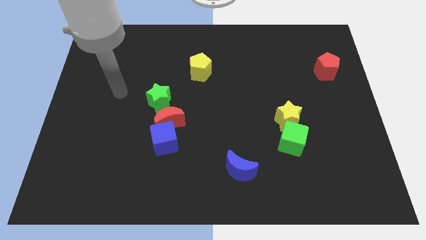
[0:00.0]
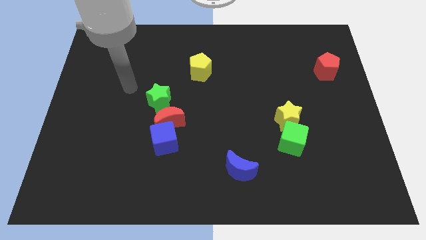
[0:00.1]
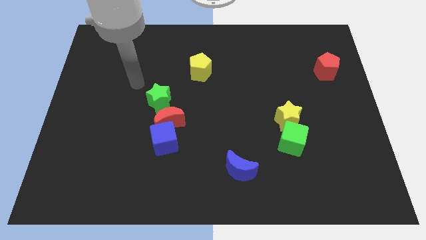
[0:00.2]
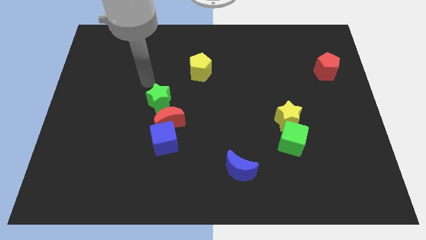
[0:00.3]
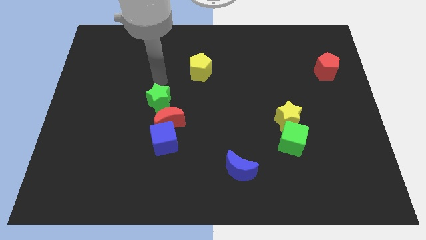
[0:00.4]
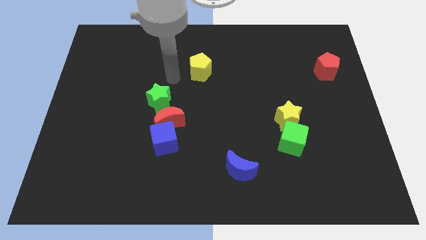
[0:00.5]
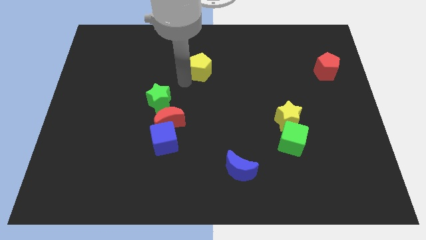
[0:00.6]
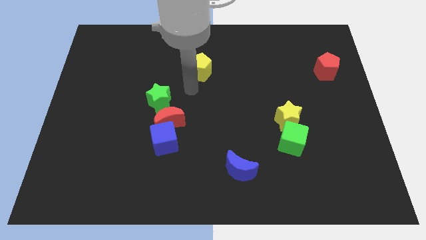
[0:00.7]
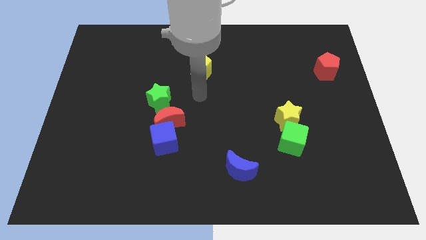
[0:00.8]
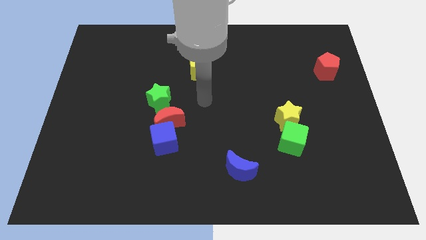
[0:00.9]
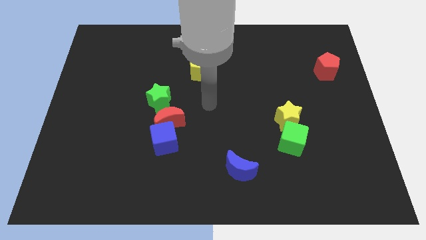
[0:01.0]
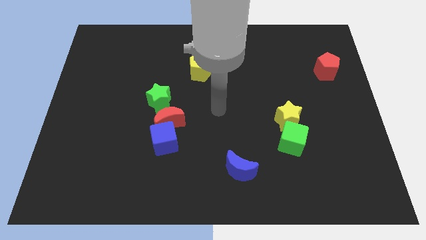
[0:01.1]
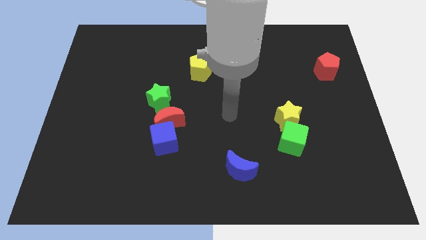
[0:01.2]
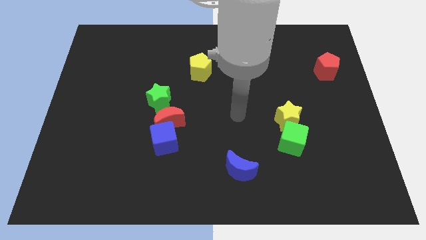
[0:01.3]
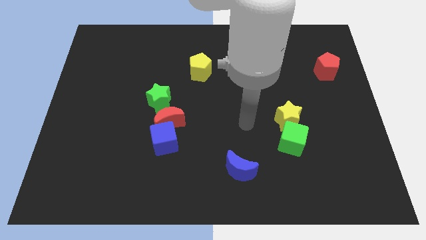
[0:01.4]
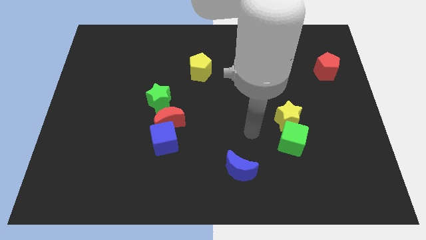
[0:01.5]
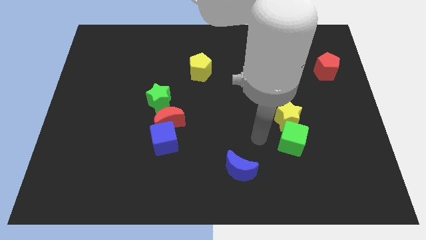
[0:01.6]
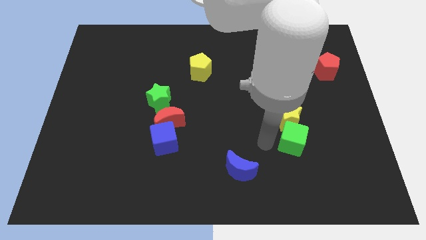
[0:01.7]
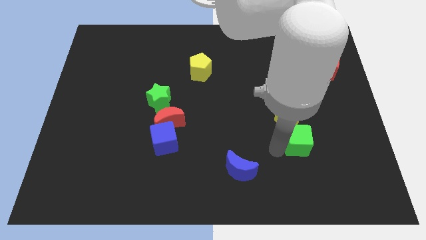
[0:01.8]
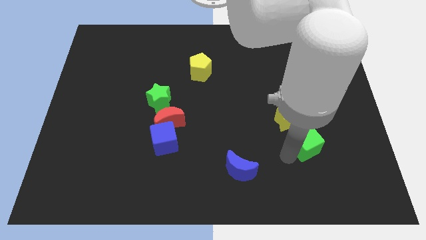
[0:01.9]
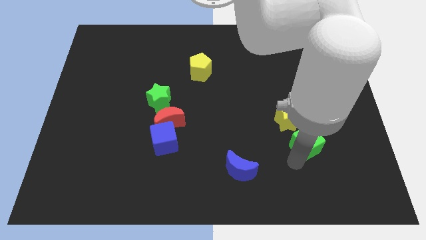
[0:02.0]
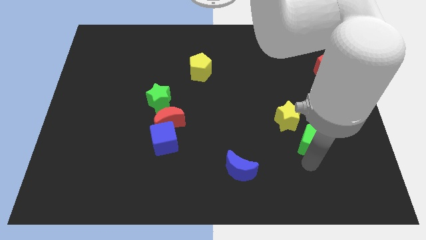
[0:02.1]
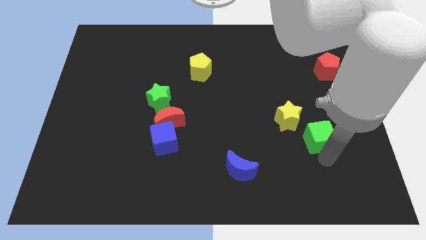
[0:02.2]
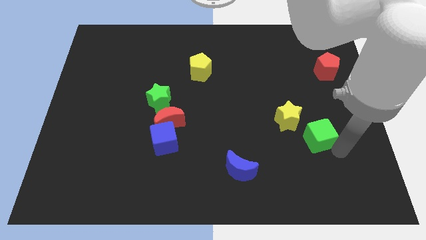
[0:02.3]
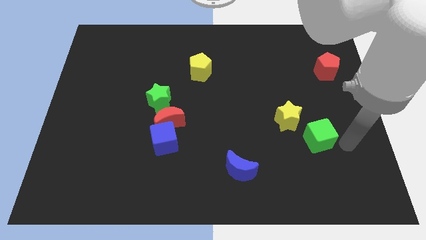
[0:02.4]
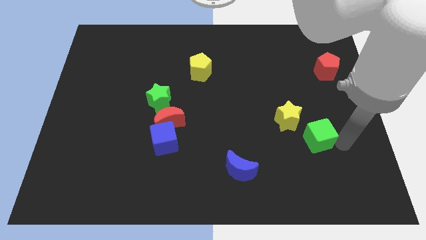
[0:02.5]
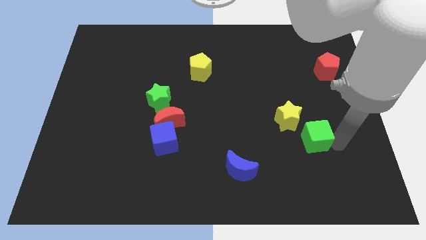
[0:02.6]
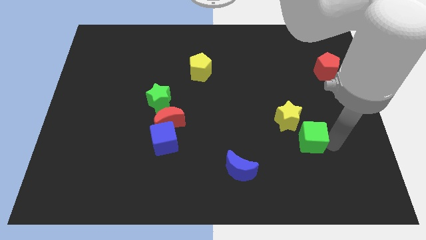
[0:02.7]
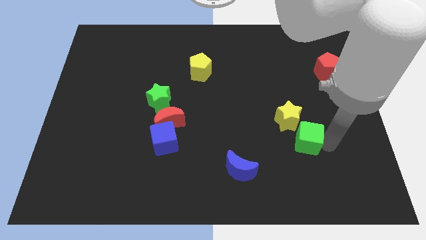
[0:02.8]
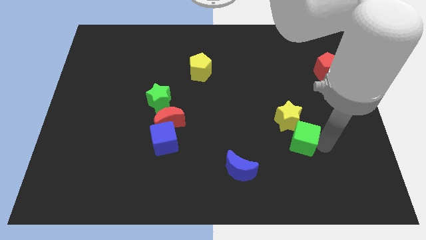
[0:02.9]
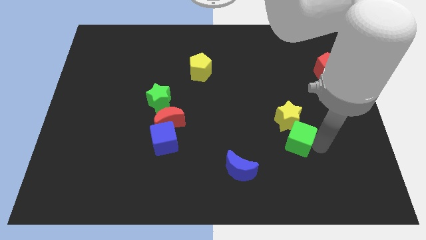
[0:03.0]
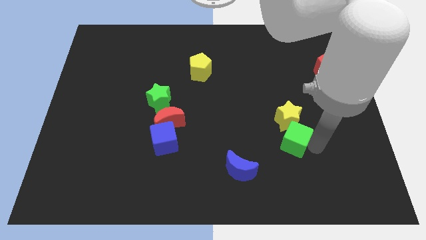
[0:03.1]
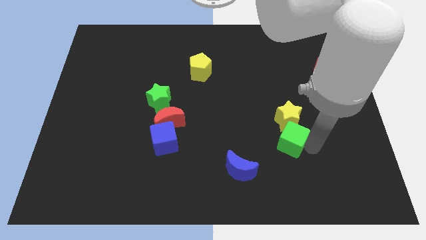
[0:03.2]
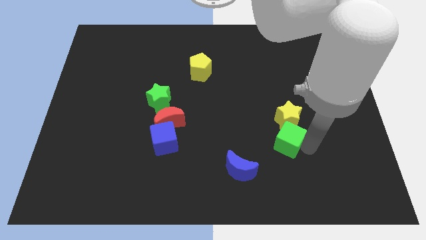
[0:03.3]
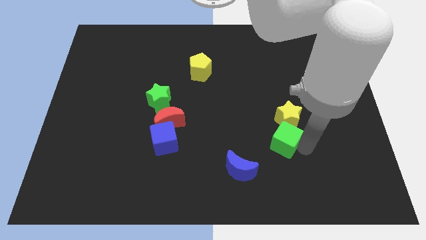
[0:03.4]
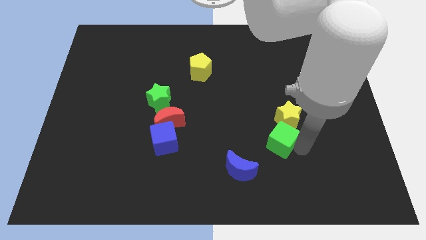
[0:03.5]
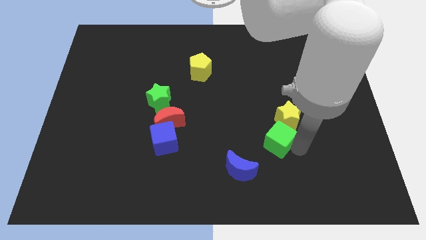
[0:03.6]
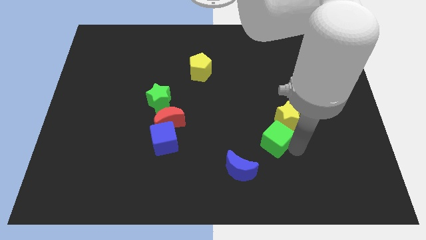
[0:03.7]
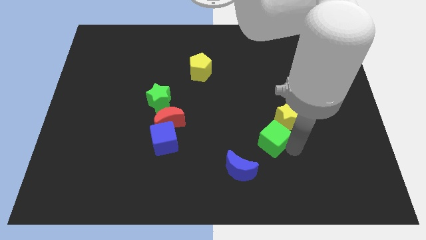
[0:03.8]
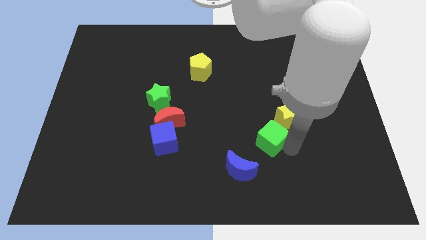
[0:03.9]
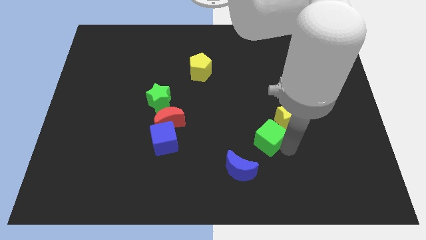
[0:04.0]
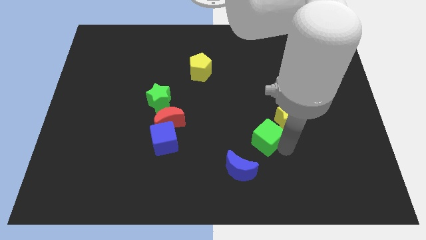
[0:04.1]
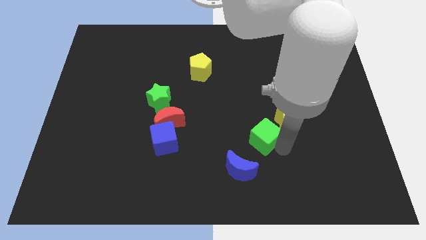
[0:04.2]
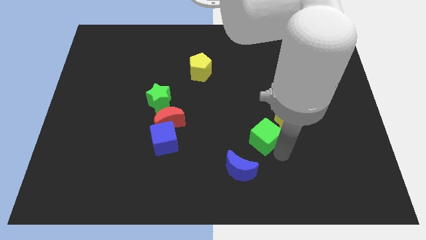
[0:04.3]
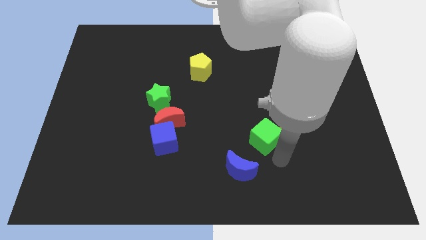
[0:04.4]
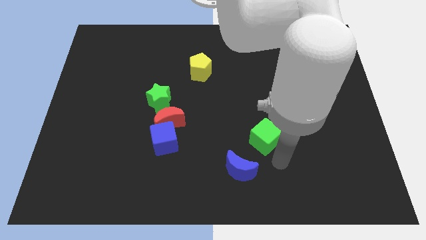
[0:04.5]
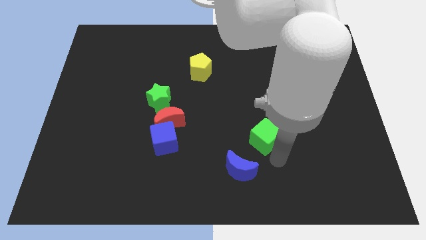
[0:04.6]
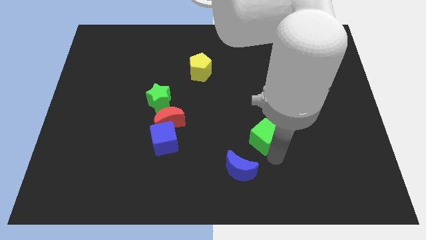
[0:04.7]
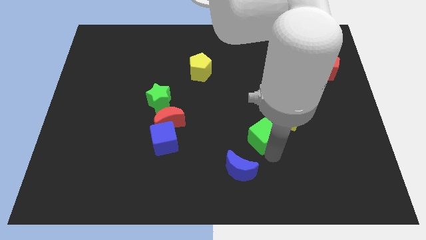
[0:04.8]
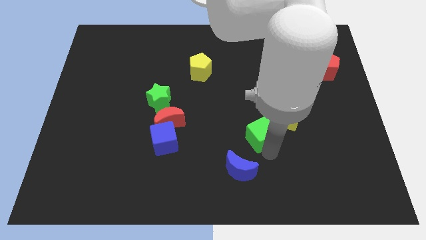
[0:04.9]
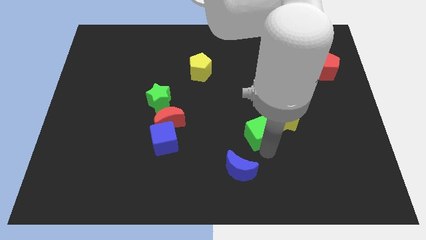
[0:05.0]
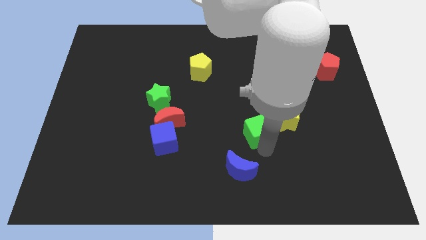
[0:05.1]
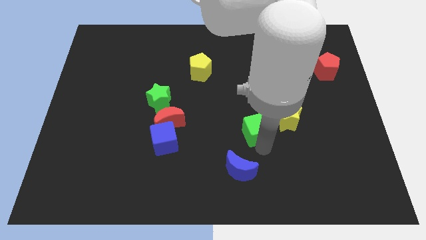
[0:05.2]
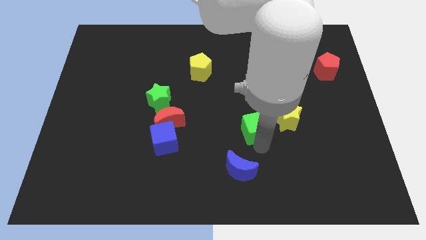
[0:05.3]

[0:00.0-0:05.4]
push the green cube to the middle

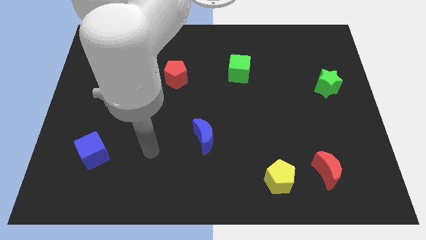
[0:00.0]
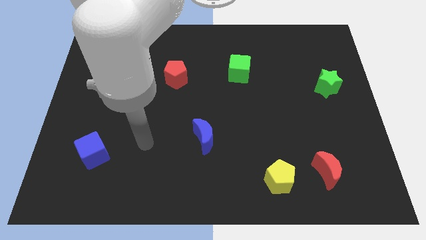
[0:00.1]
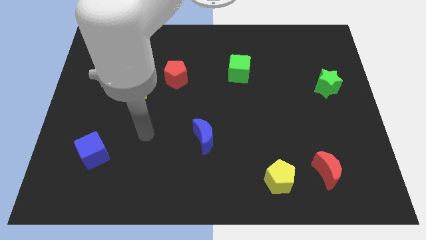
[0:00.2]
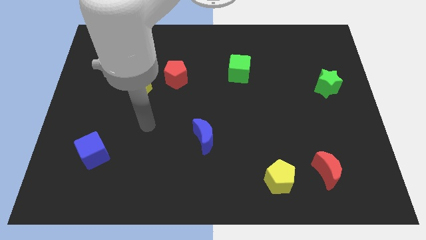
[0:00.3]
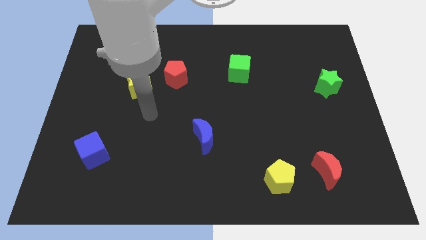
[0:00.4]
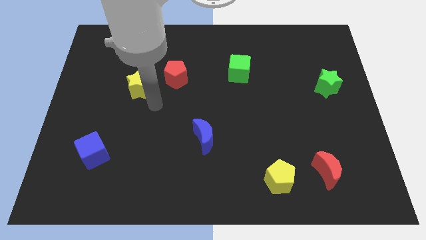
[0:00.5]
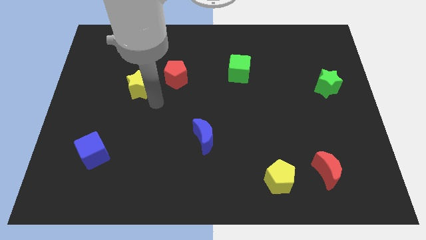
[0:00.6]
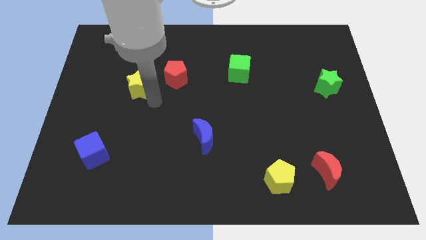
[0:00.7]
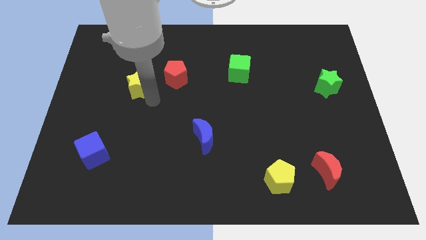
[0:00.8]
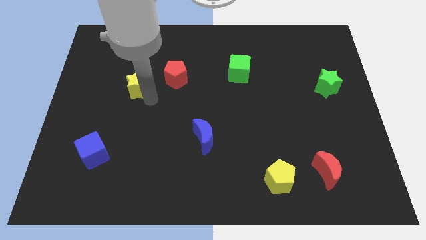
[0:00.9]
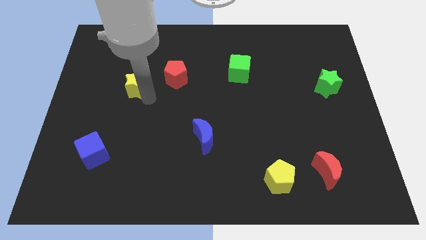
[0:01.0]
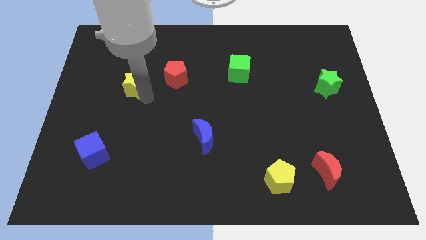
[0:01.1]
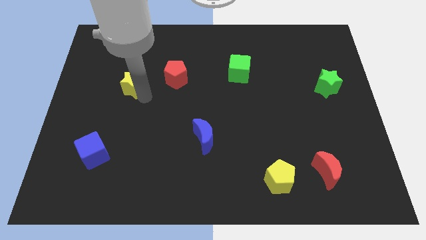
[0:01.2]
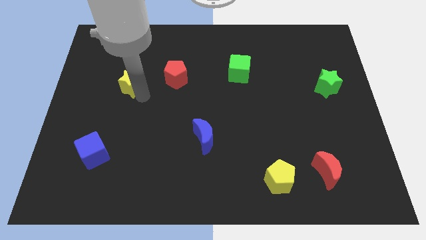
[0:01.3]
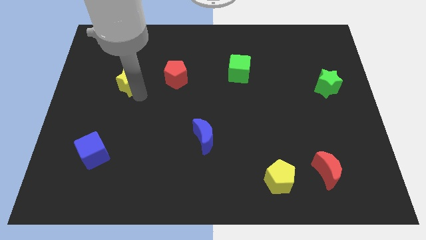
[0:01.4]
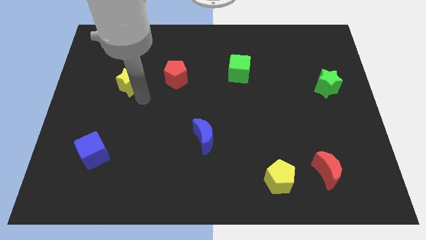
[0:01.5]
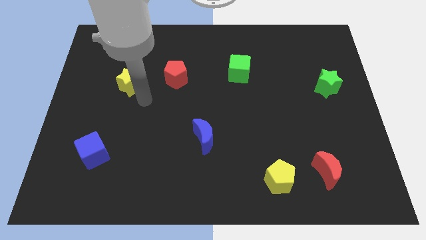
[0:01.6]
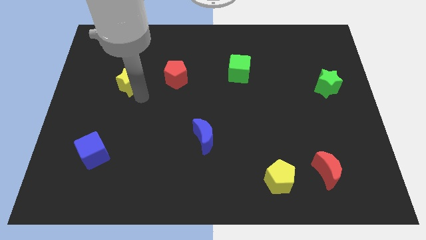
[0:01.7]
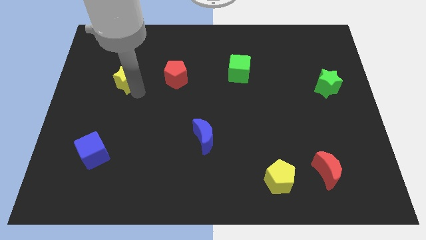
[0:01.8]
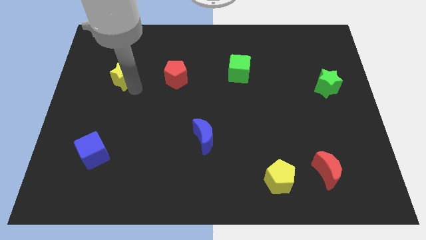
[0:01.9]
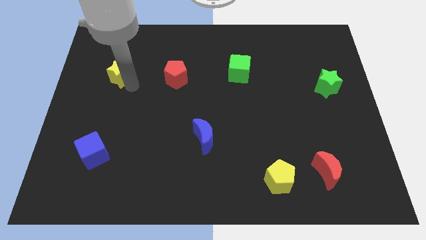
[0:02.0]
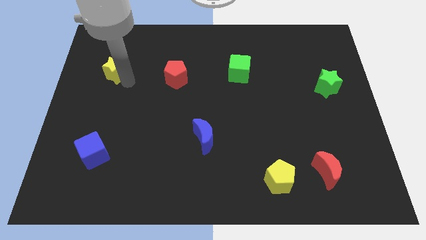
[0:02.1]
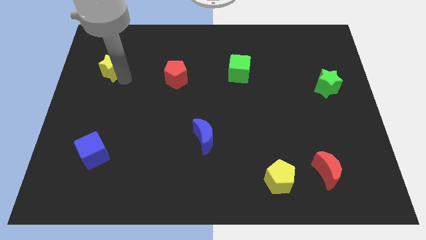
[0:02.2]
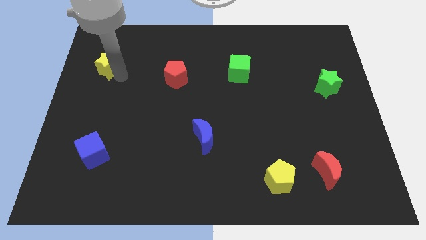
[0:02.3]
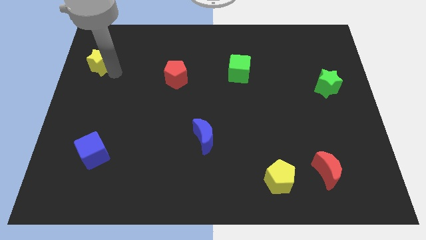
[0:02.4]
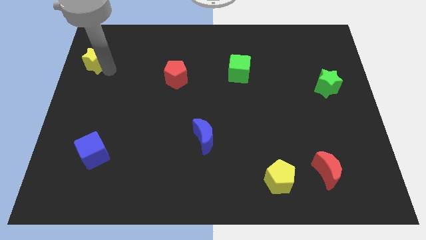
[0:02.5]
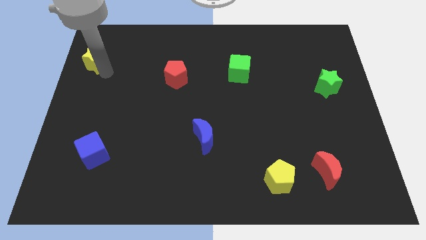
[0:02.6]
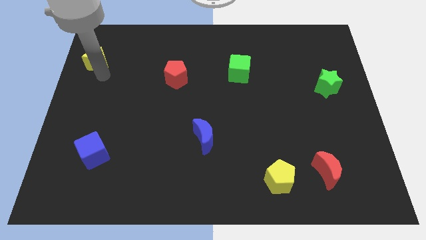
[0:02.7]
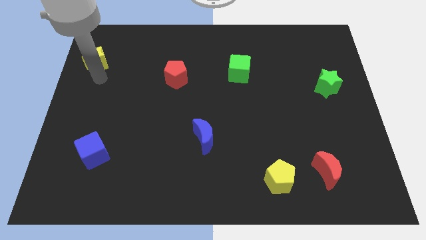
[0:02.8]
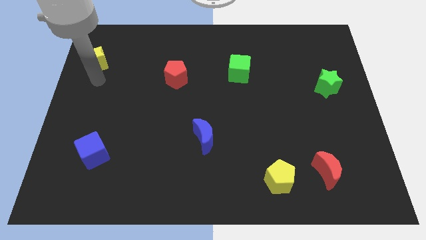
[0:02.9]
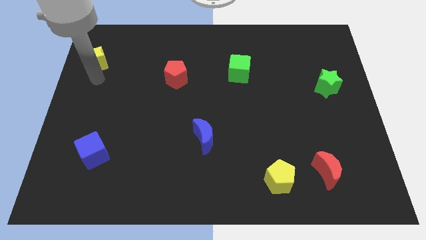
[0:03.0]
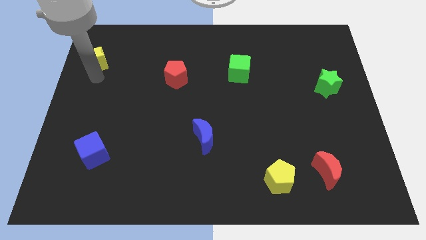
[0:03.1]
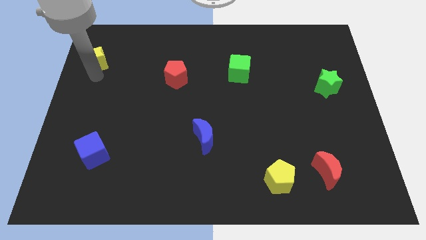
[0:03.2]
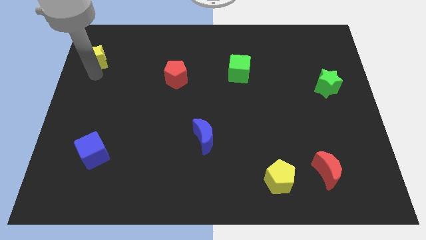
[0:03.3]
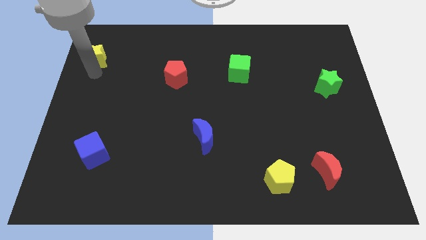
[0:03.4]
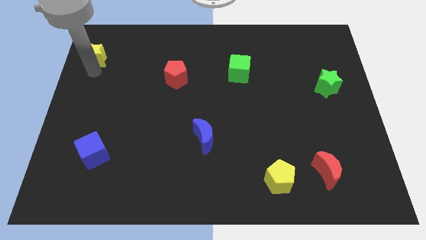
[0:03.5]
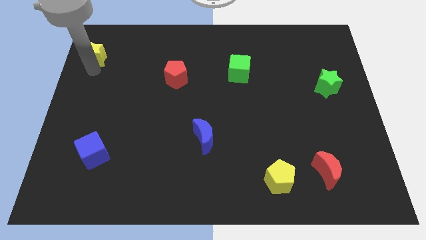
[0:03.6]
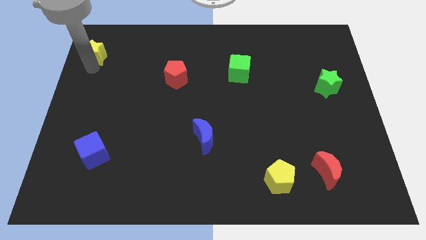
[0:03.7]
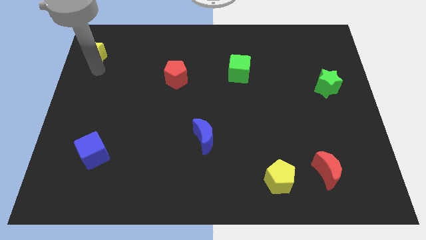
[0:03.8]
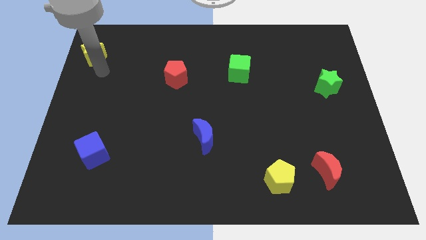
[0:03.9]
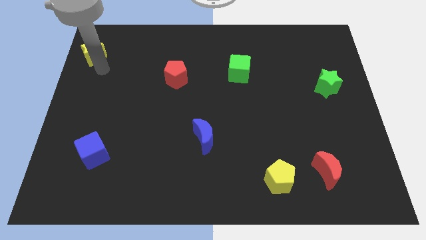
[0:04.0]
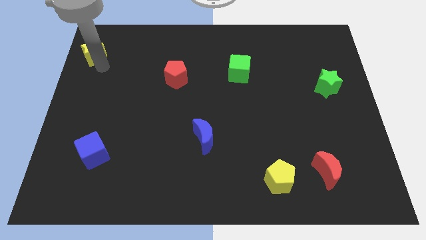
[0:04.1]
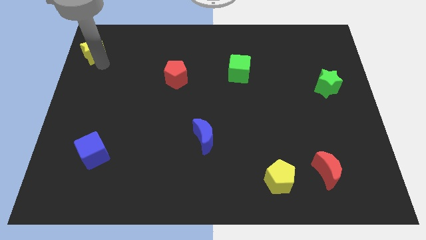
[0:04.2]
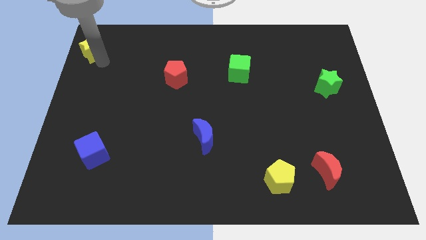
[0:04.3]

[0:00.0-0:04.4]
put the yellow star to the top left of the board
